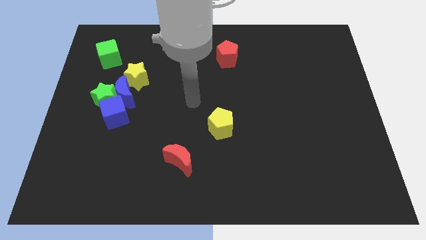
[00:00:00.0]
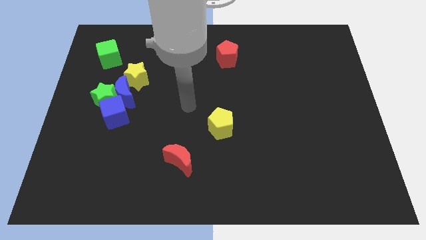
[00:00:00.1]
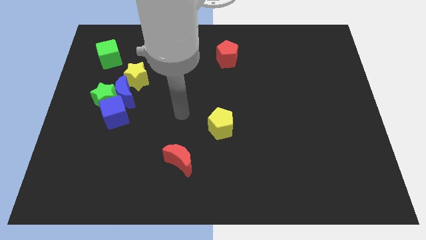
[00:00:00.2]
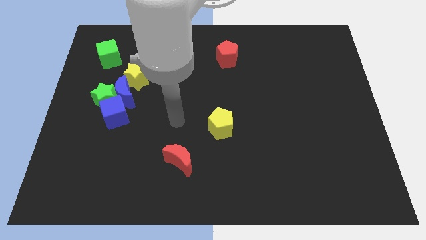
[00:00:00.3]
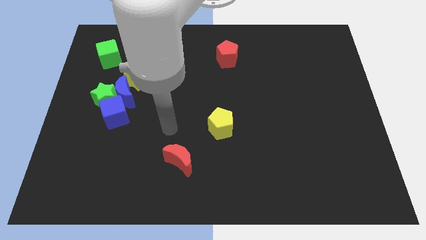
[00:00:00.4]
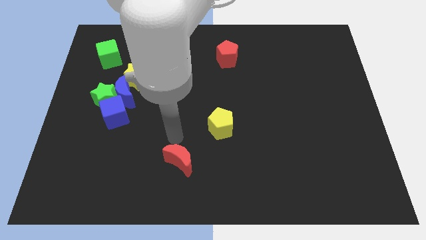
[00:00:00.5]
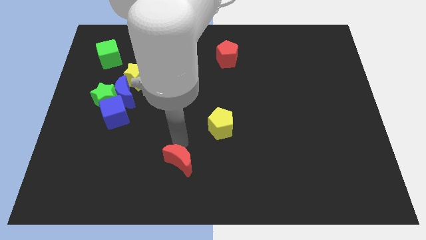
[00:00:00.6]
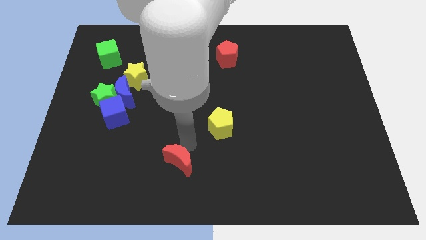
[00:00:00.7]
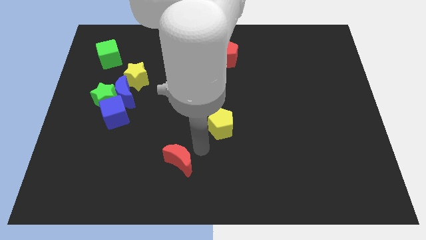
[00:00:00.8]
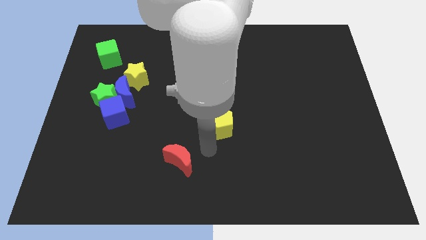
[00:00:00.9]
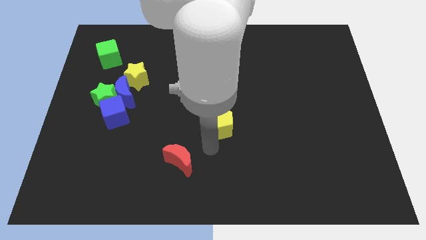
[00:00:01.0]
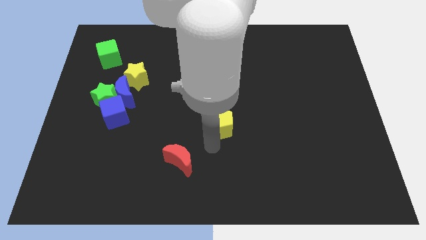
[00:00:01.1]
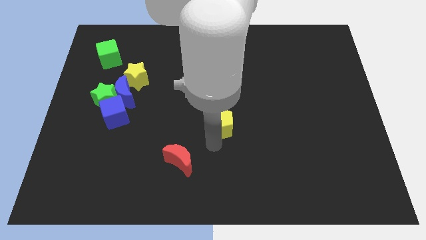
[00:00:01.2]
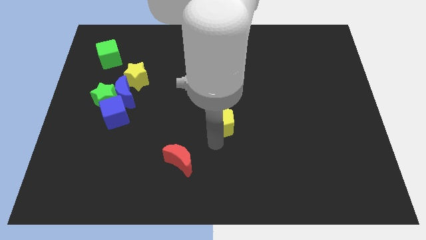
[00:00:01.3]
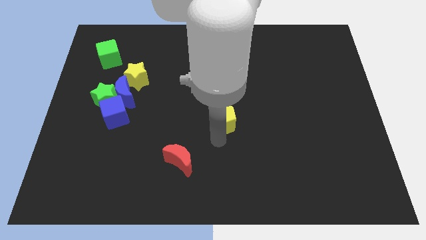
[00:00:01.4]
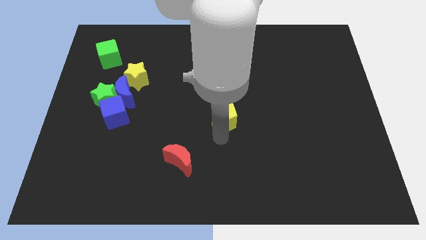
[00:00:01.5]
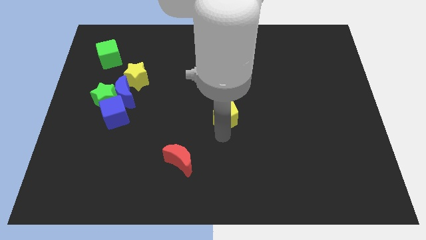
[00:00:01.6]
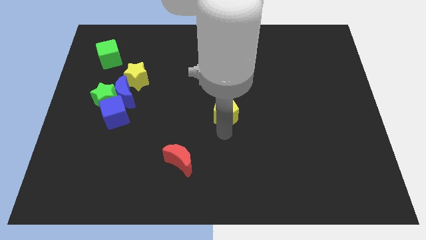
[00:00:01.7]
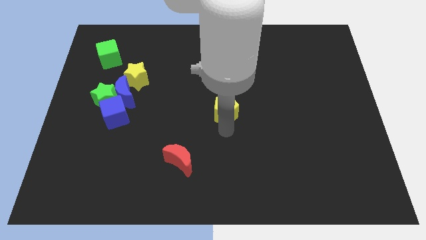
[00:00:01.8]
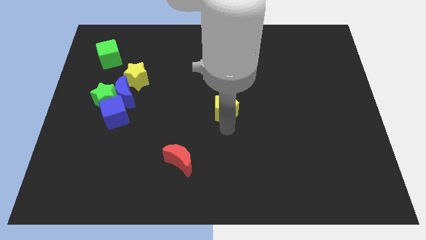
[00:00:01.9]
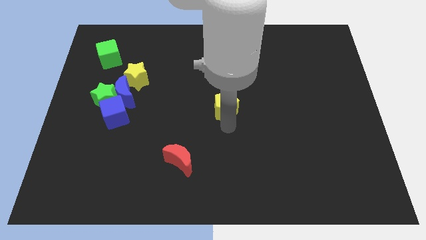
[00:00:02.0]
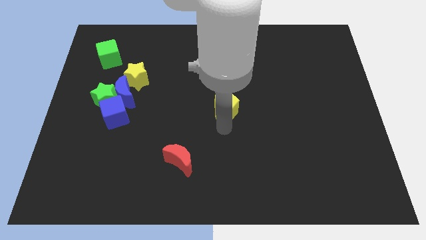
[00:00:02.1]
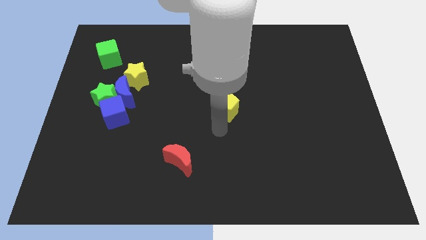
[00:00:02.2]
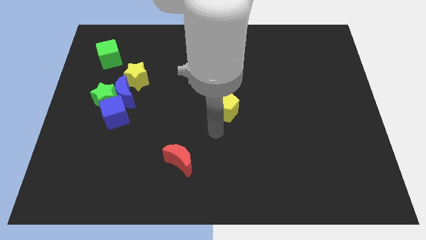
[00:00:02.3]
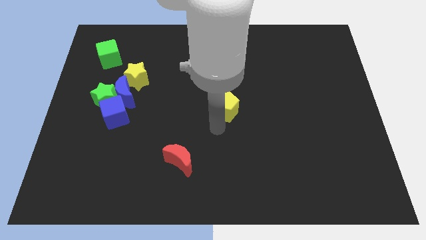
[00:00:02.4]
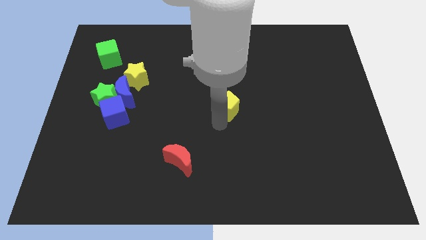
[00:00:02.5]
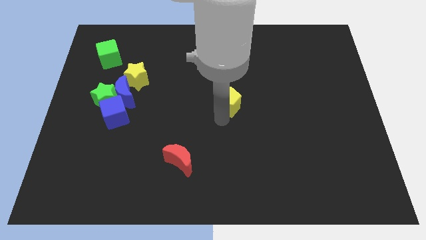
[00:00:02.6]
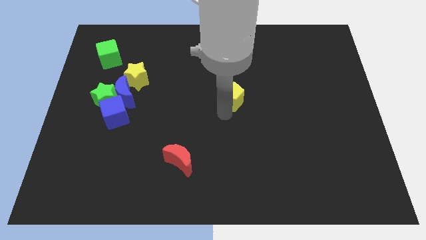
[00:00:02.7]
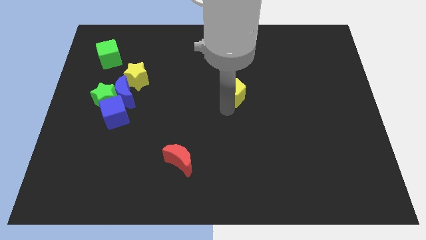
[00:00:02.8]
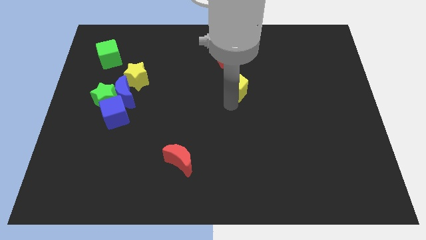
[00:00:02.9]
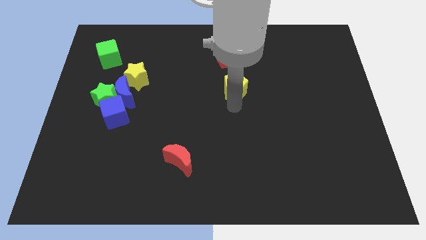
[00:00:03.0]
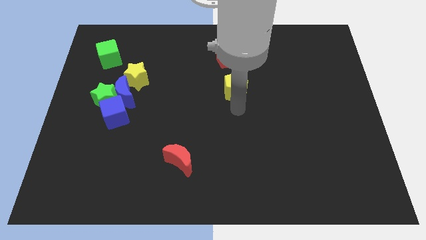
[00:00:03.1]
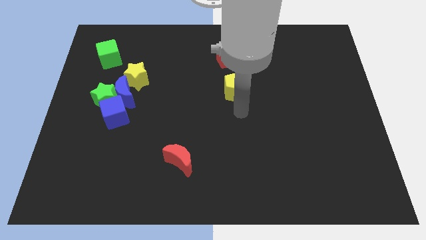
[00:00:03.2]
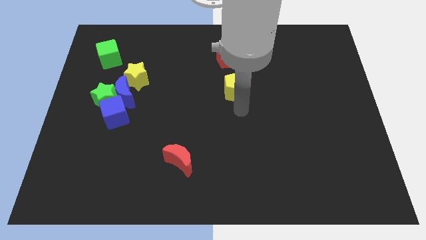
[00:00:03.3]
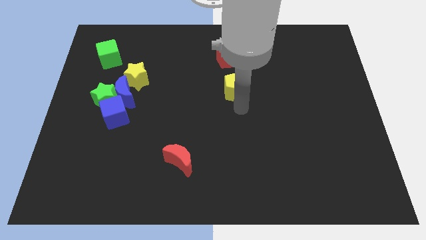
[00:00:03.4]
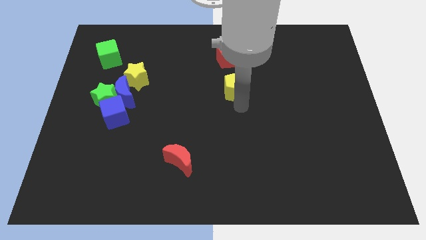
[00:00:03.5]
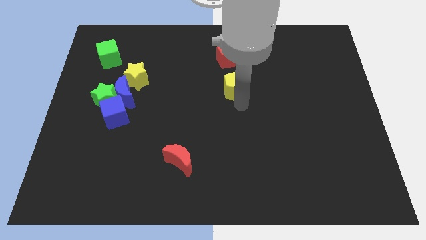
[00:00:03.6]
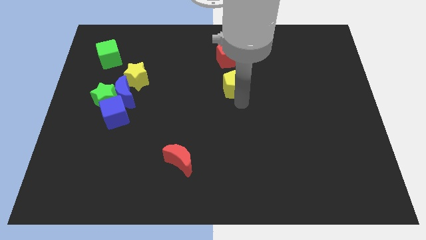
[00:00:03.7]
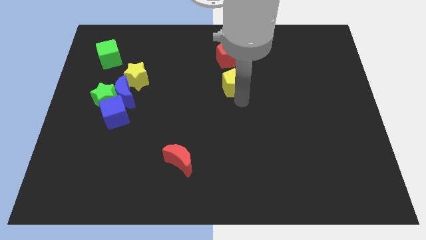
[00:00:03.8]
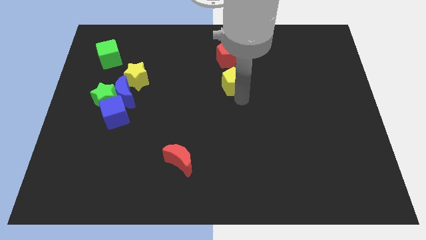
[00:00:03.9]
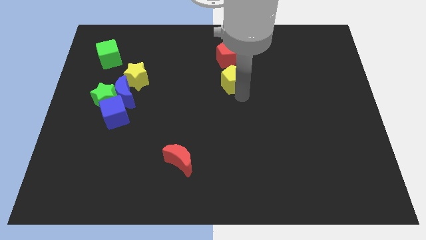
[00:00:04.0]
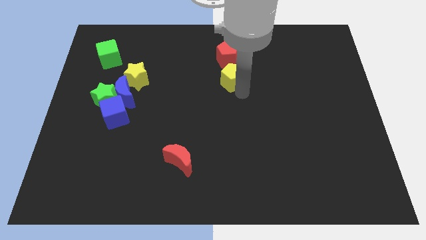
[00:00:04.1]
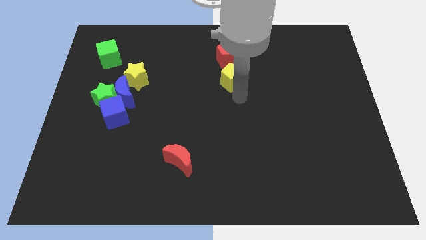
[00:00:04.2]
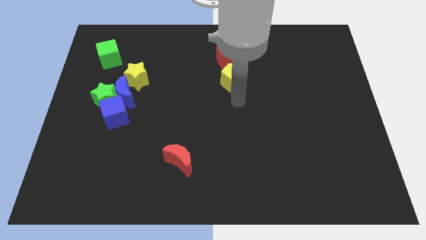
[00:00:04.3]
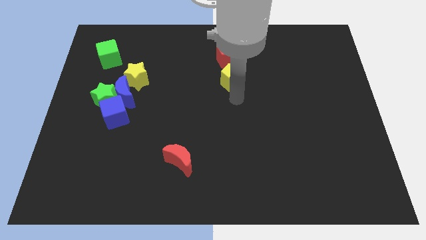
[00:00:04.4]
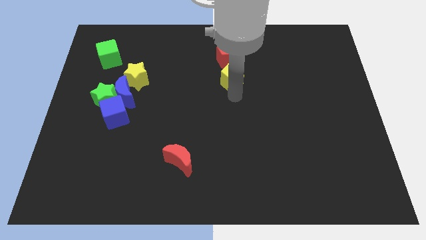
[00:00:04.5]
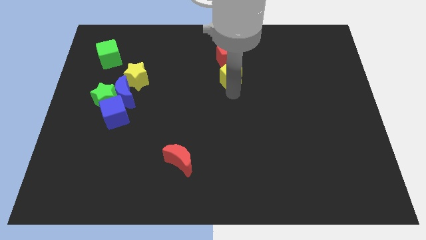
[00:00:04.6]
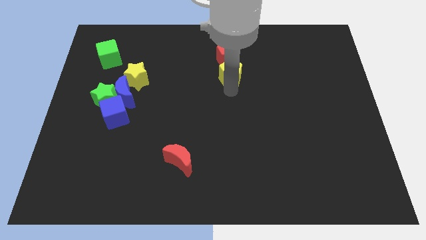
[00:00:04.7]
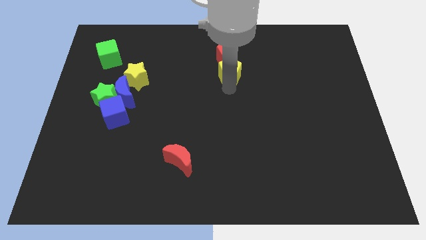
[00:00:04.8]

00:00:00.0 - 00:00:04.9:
slide the yellow pentagon towards the red pentagon

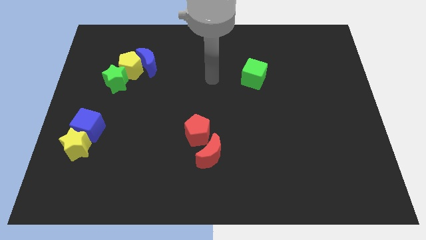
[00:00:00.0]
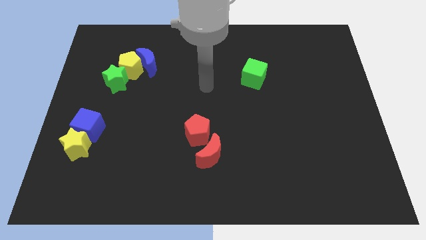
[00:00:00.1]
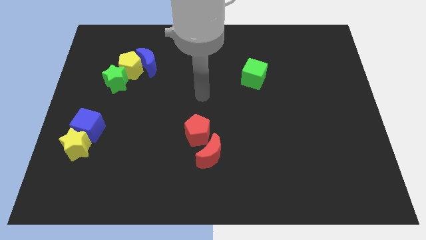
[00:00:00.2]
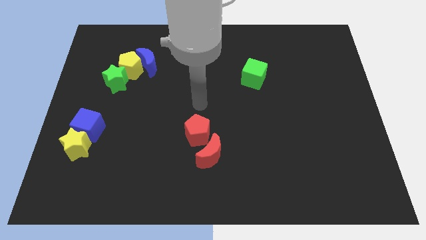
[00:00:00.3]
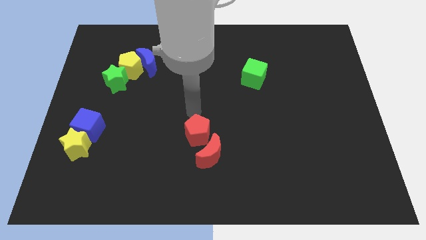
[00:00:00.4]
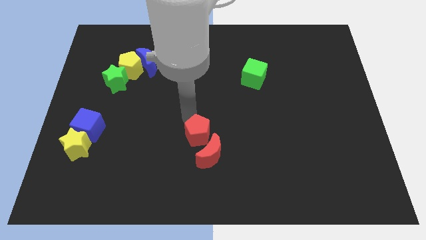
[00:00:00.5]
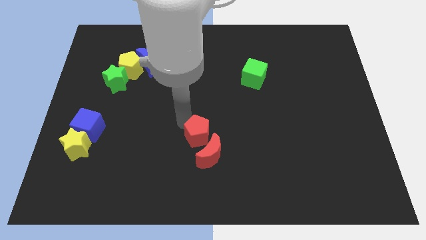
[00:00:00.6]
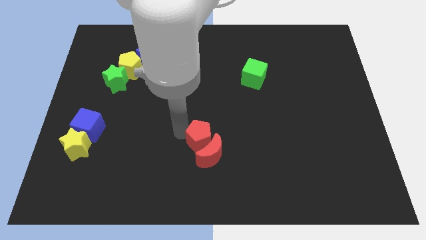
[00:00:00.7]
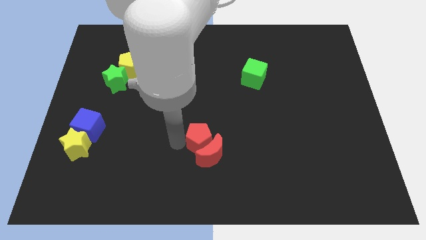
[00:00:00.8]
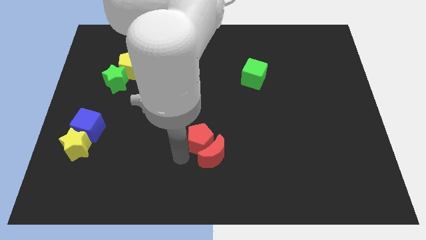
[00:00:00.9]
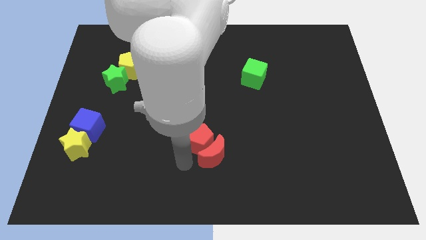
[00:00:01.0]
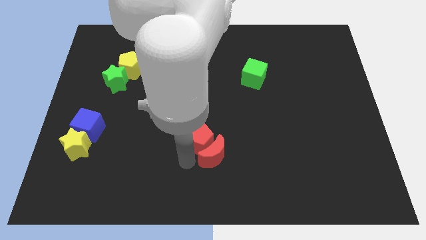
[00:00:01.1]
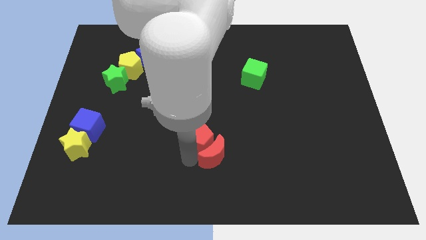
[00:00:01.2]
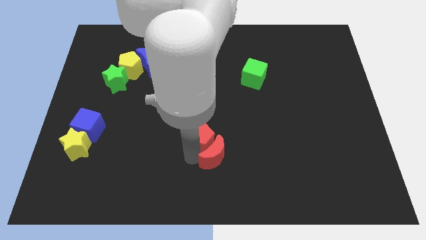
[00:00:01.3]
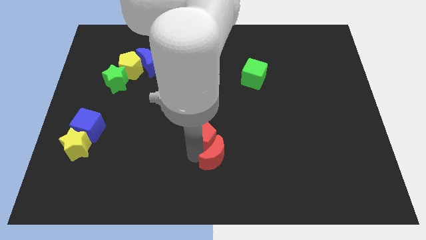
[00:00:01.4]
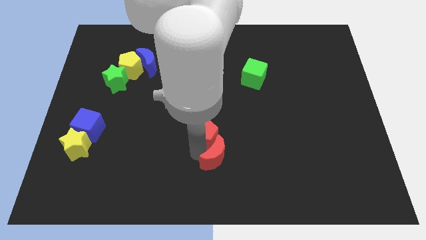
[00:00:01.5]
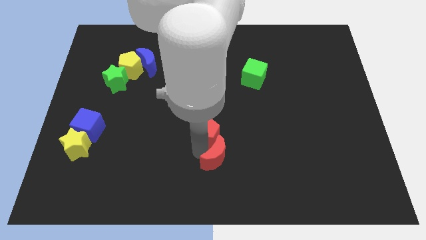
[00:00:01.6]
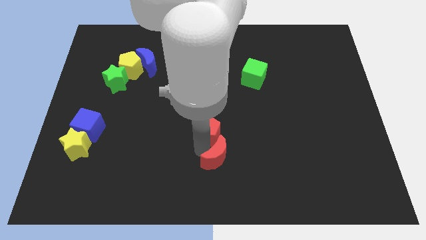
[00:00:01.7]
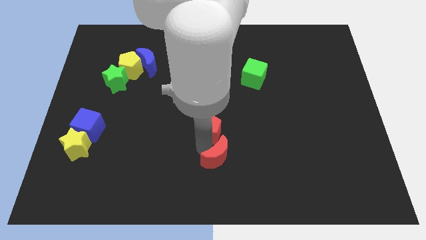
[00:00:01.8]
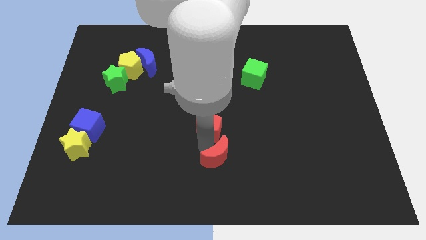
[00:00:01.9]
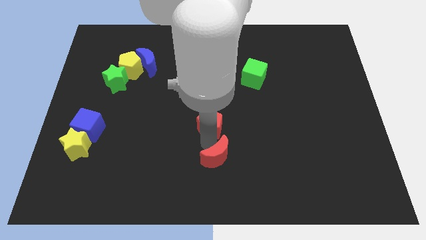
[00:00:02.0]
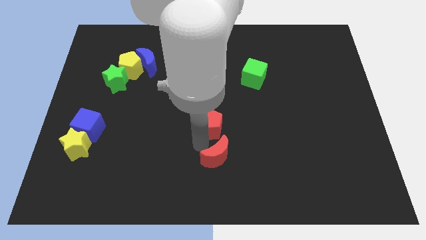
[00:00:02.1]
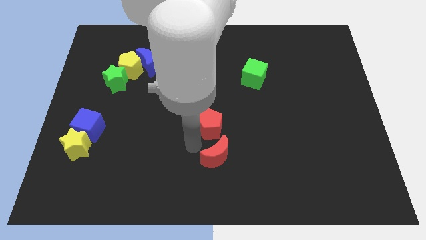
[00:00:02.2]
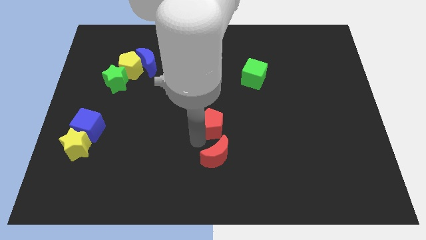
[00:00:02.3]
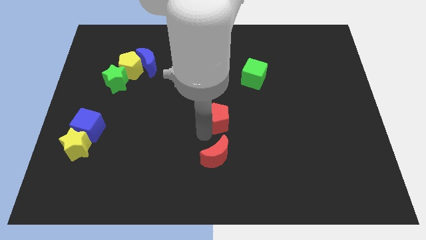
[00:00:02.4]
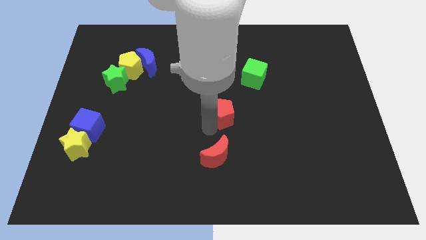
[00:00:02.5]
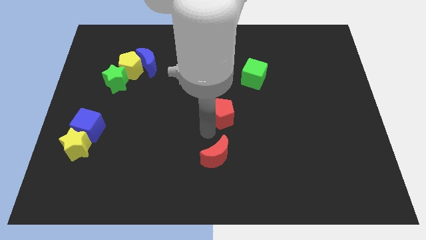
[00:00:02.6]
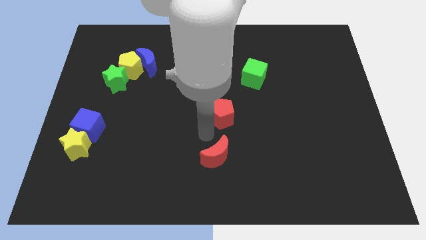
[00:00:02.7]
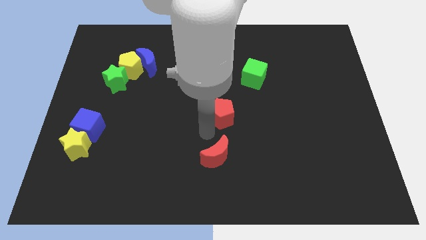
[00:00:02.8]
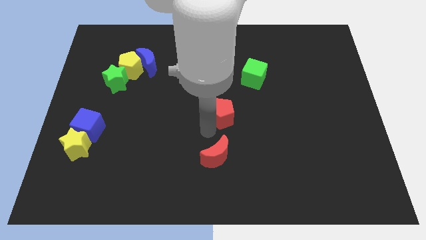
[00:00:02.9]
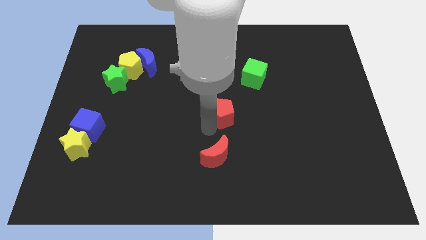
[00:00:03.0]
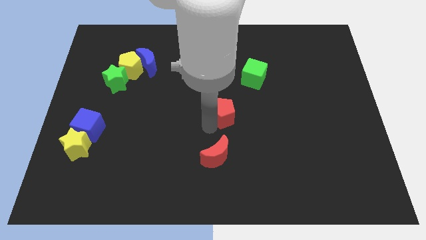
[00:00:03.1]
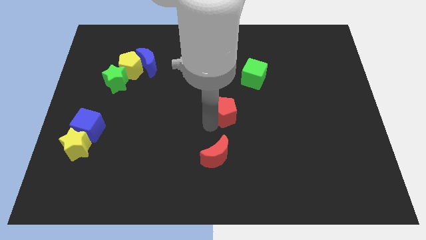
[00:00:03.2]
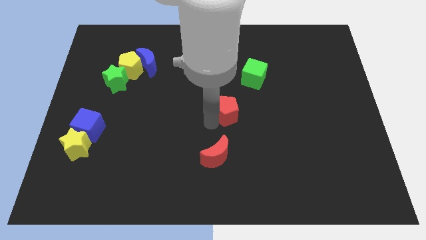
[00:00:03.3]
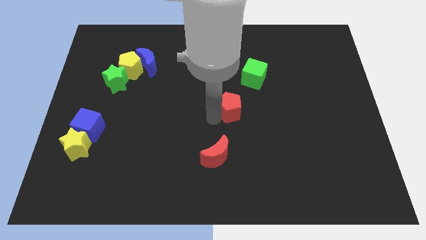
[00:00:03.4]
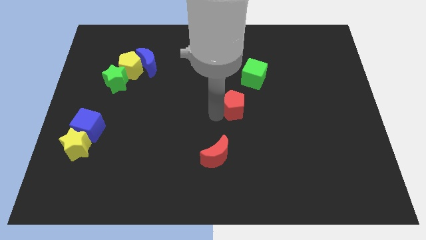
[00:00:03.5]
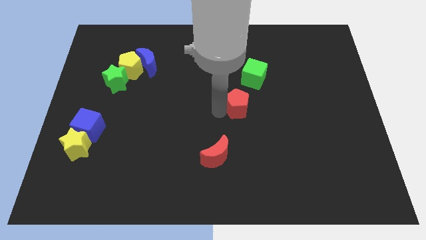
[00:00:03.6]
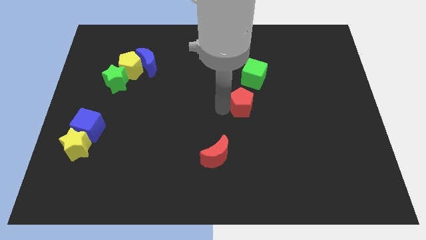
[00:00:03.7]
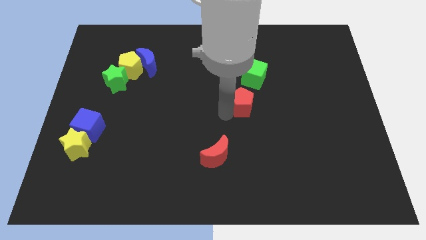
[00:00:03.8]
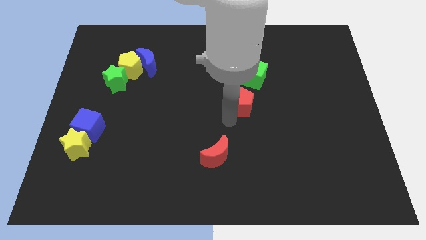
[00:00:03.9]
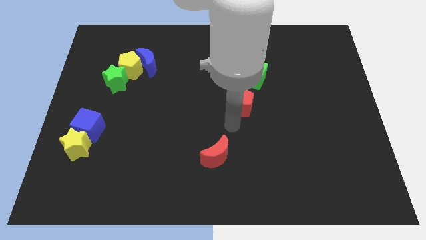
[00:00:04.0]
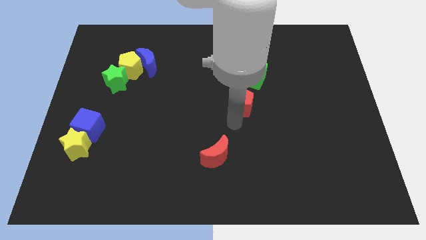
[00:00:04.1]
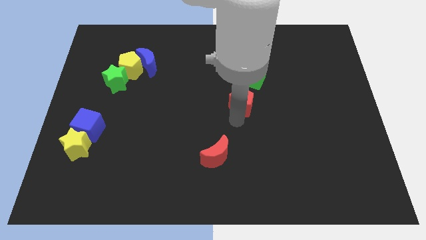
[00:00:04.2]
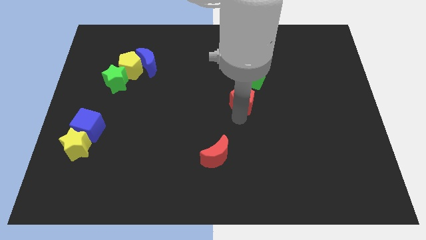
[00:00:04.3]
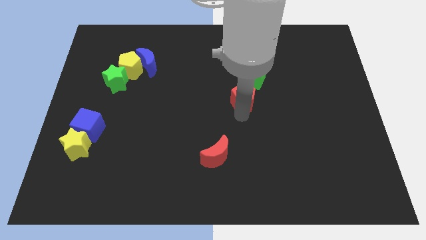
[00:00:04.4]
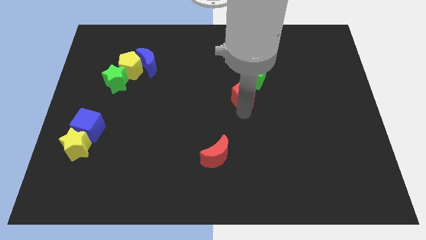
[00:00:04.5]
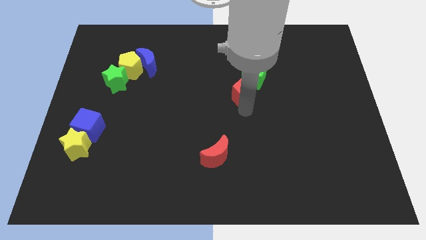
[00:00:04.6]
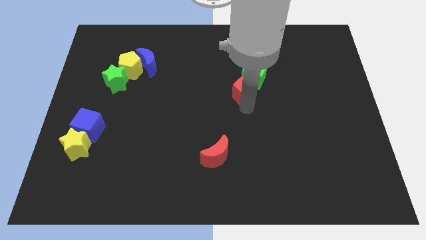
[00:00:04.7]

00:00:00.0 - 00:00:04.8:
push the red pentagon towards the green cube
